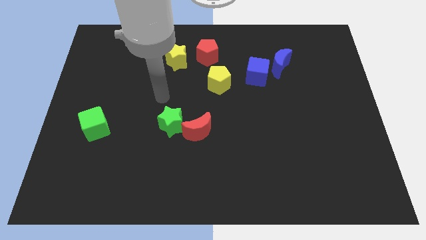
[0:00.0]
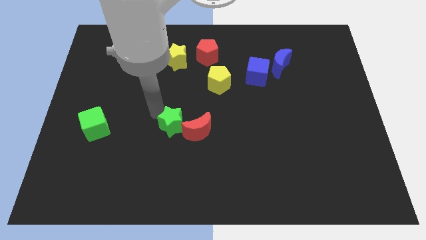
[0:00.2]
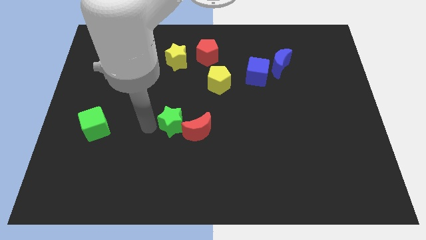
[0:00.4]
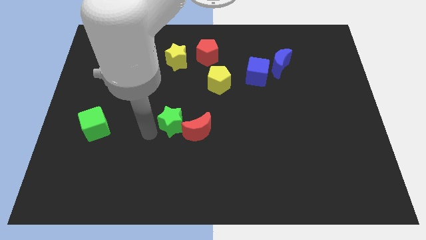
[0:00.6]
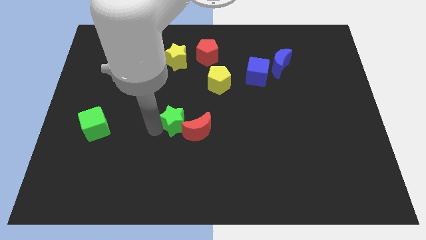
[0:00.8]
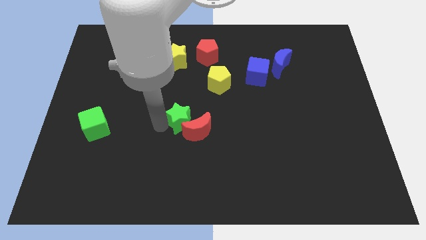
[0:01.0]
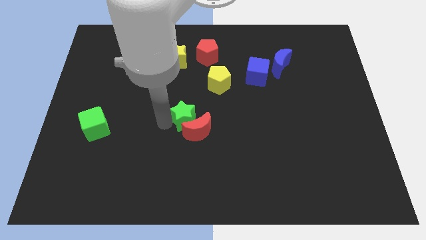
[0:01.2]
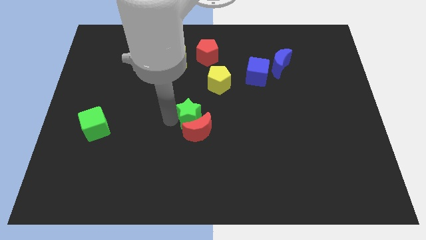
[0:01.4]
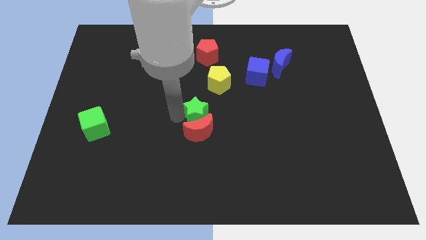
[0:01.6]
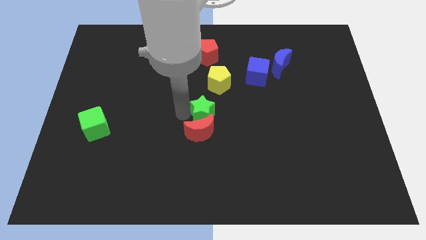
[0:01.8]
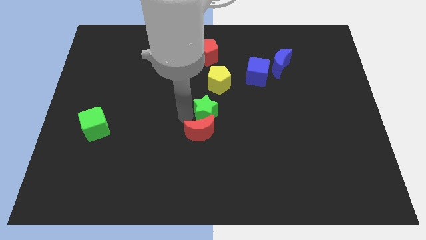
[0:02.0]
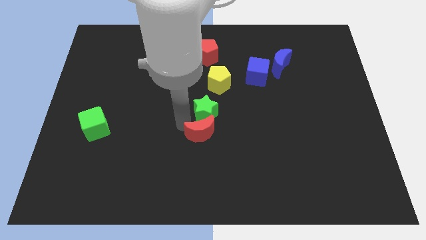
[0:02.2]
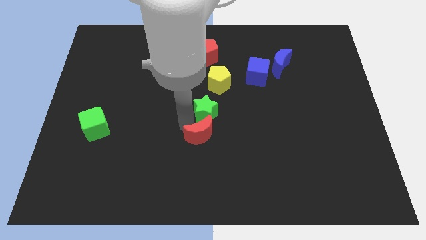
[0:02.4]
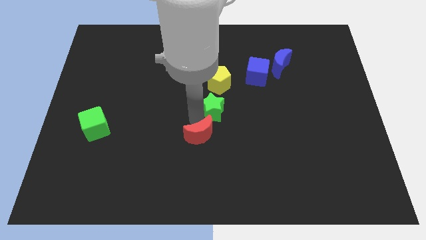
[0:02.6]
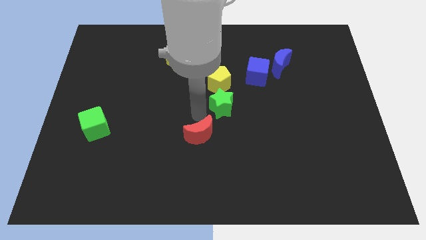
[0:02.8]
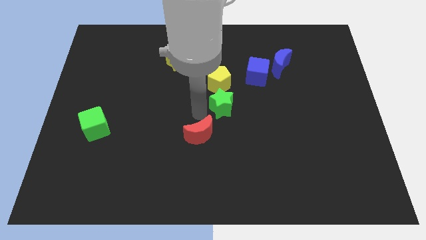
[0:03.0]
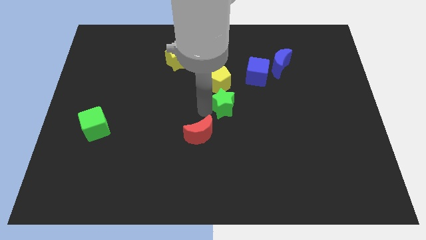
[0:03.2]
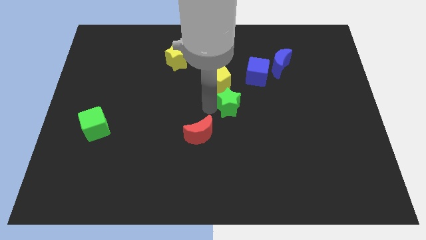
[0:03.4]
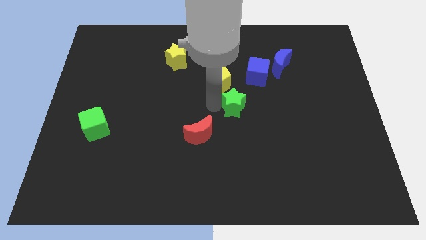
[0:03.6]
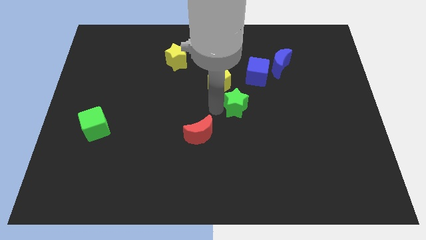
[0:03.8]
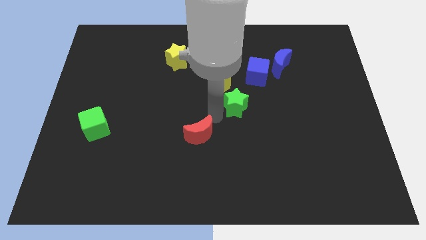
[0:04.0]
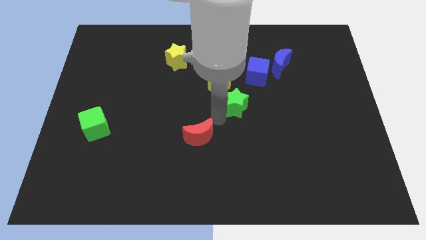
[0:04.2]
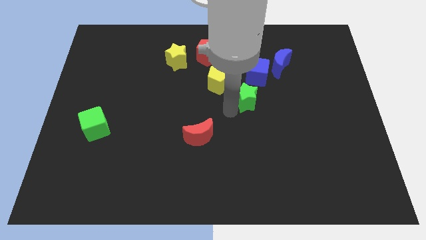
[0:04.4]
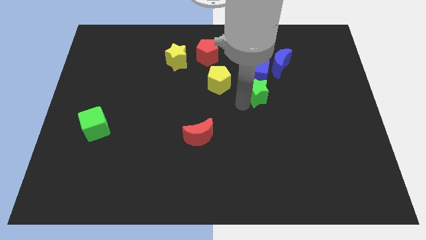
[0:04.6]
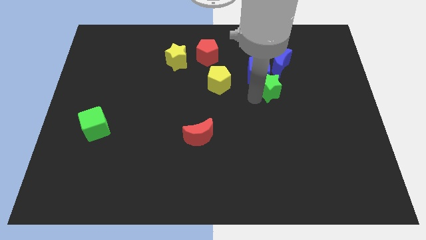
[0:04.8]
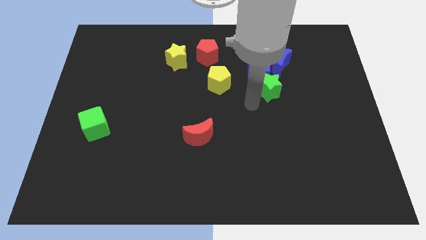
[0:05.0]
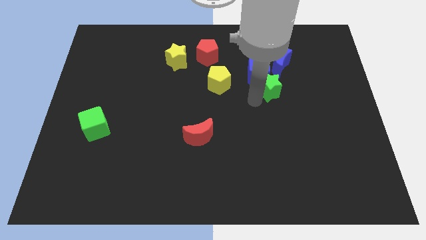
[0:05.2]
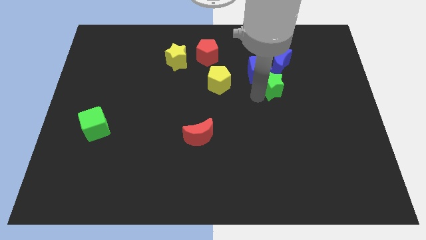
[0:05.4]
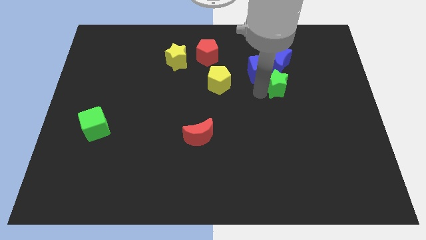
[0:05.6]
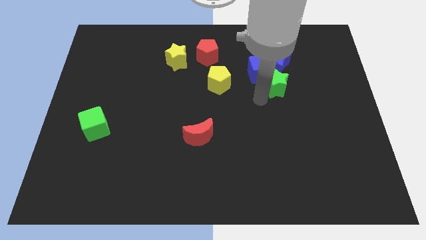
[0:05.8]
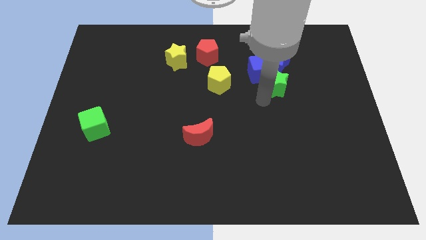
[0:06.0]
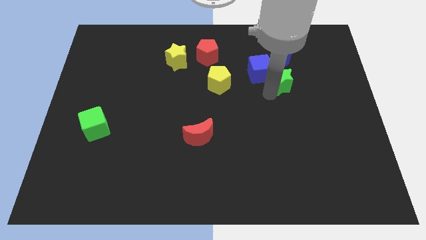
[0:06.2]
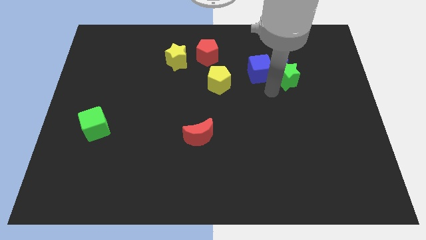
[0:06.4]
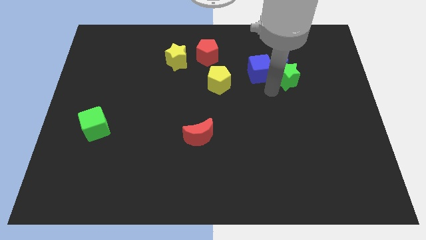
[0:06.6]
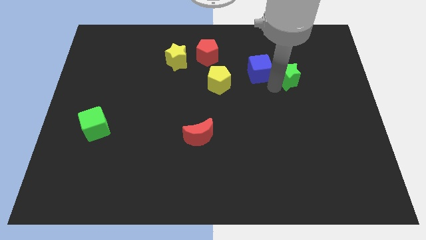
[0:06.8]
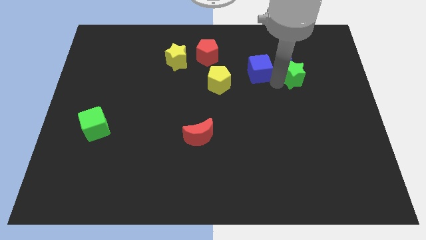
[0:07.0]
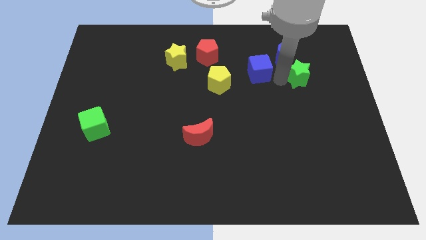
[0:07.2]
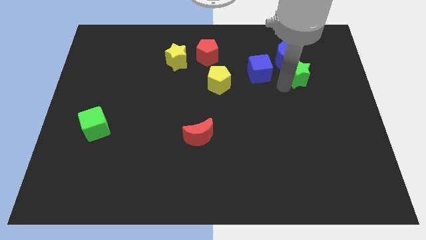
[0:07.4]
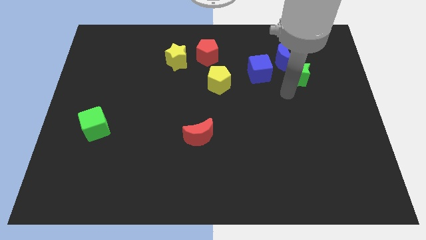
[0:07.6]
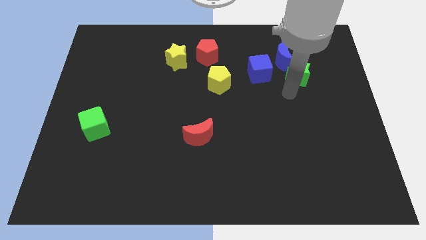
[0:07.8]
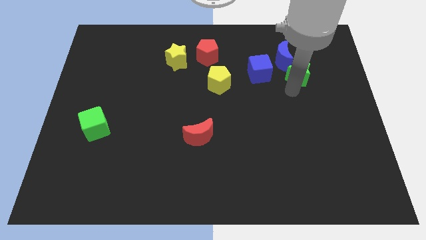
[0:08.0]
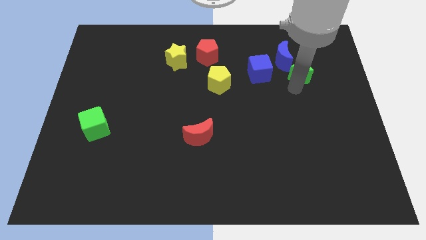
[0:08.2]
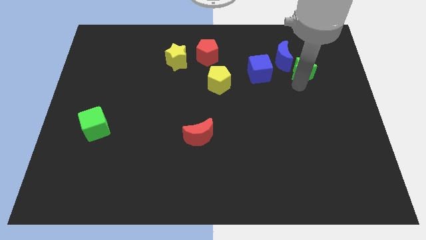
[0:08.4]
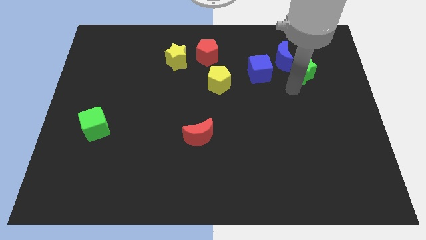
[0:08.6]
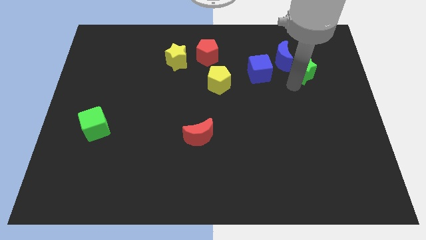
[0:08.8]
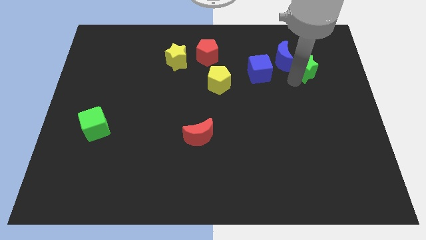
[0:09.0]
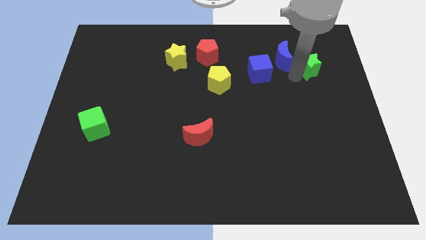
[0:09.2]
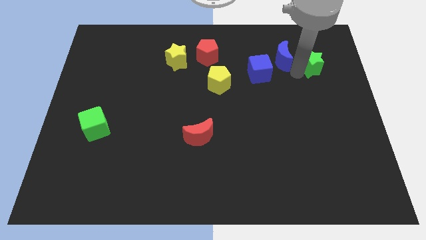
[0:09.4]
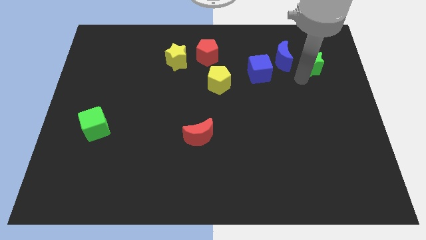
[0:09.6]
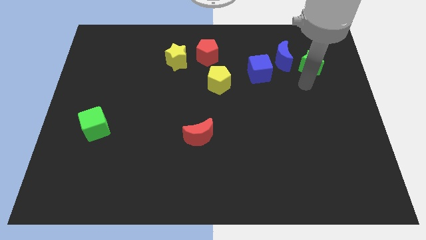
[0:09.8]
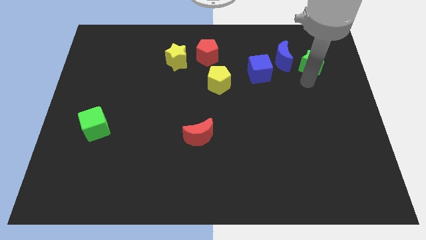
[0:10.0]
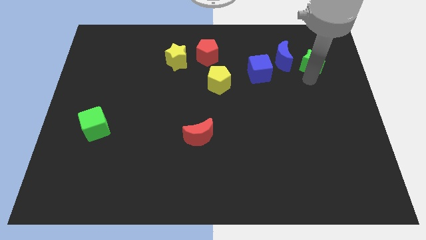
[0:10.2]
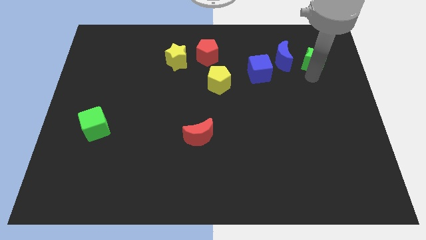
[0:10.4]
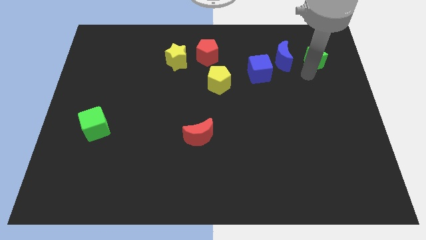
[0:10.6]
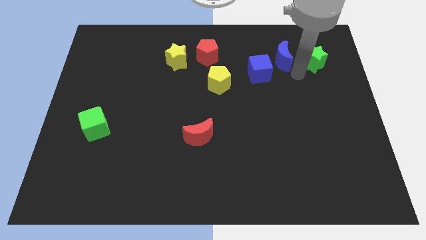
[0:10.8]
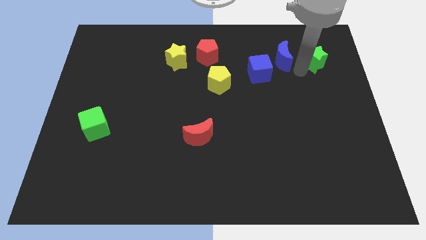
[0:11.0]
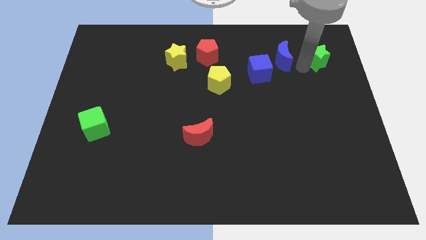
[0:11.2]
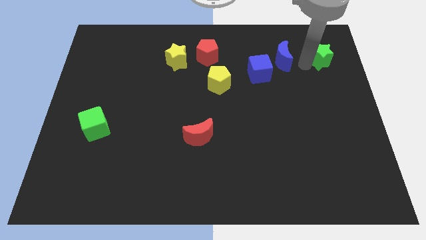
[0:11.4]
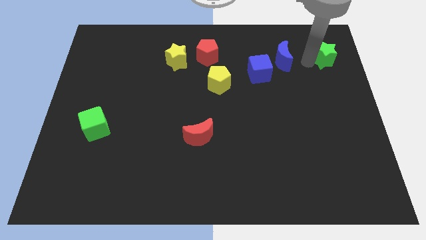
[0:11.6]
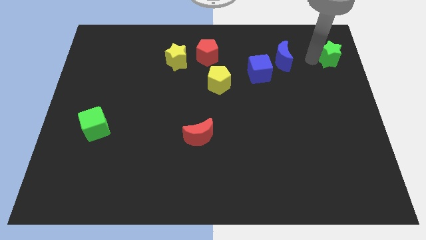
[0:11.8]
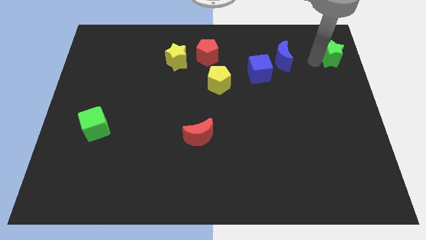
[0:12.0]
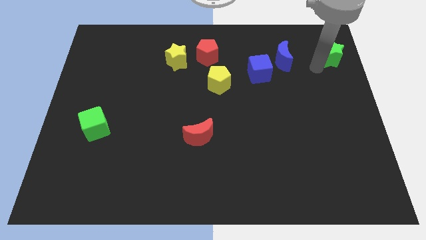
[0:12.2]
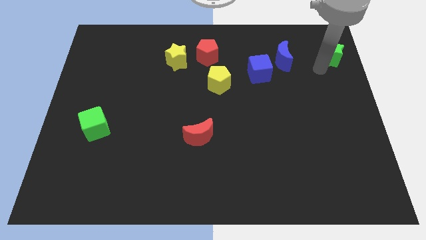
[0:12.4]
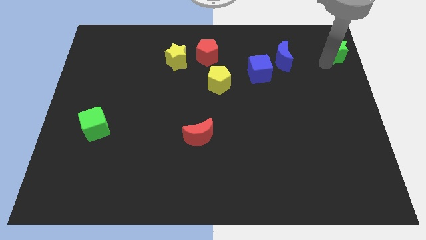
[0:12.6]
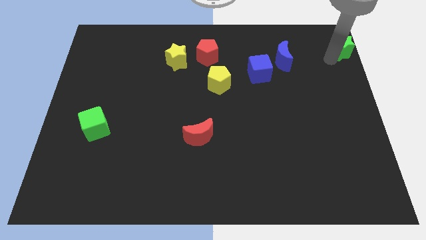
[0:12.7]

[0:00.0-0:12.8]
push the green star to the top right of the board
